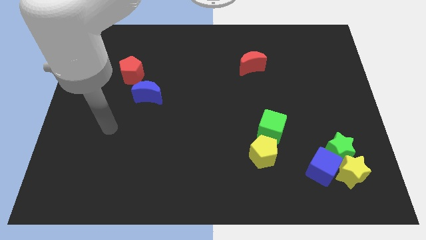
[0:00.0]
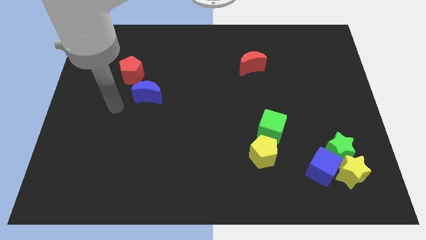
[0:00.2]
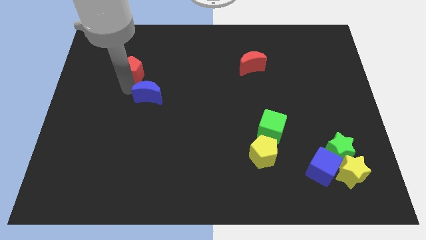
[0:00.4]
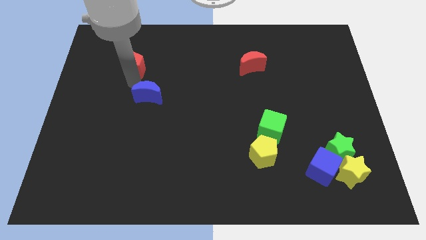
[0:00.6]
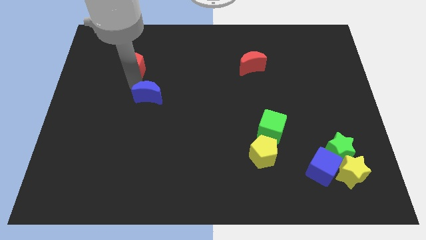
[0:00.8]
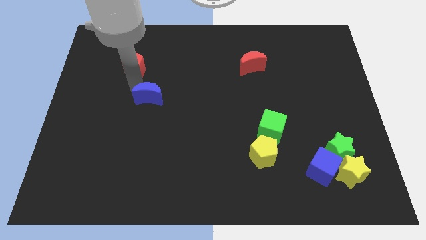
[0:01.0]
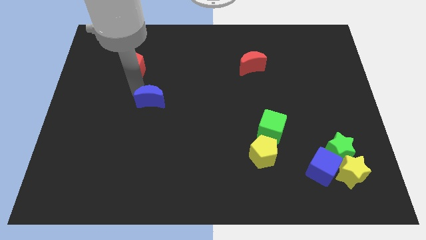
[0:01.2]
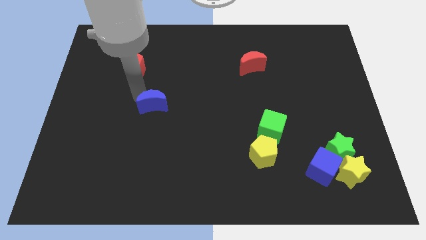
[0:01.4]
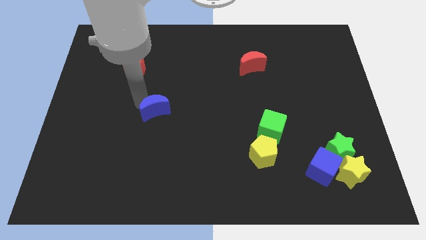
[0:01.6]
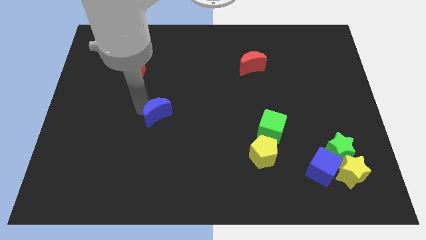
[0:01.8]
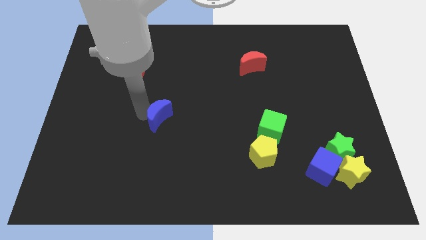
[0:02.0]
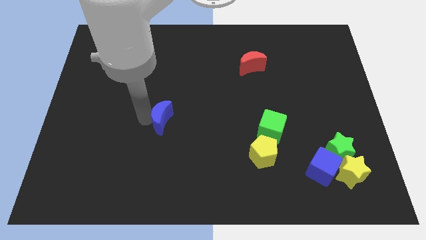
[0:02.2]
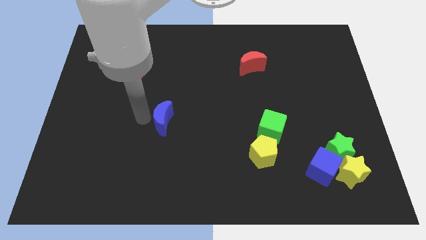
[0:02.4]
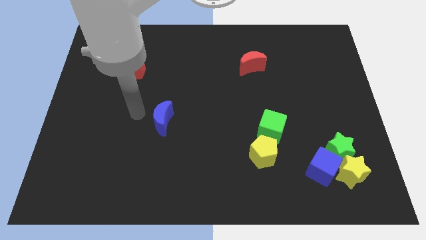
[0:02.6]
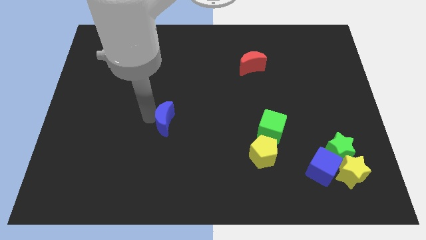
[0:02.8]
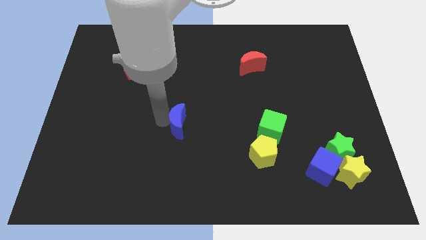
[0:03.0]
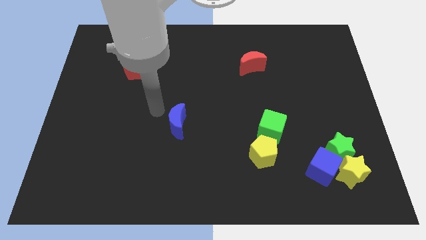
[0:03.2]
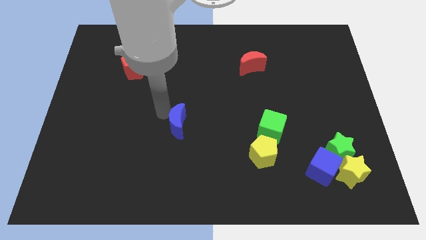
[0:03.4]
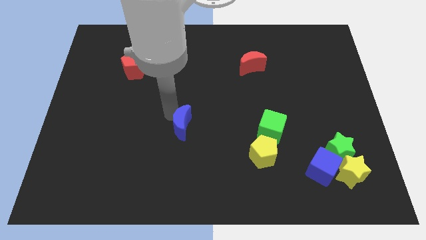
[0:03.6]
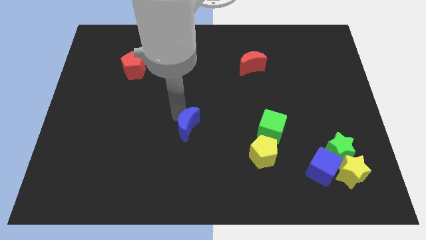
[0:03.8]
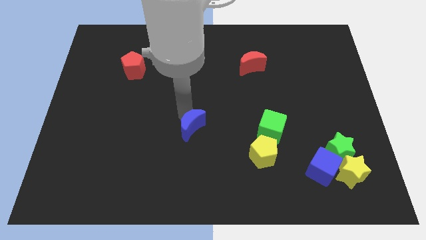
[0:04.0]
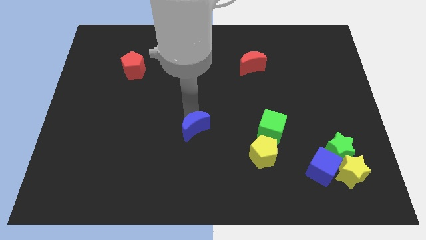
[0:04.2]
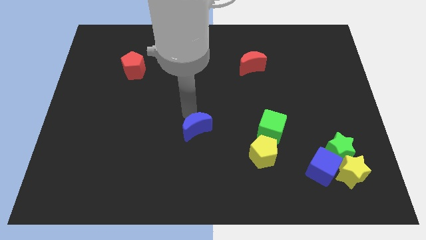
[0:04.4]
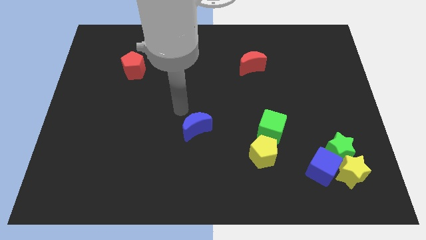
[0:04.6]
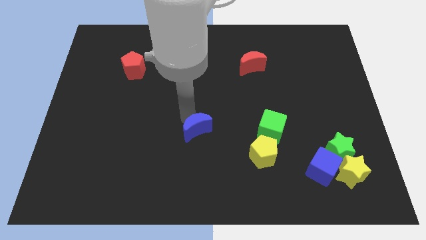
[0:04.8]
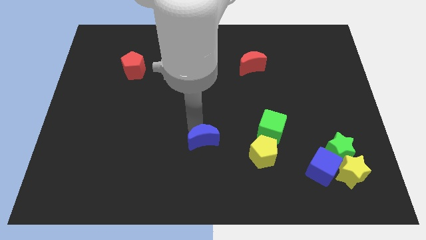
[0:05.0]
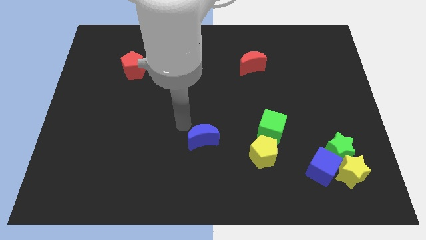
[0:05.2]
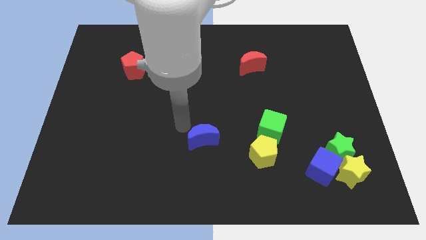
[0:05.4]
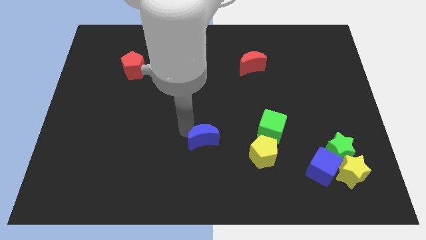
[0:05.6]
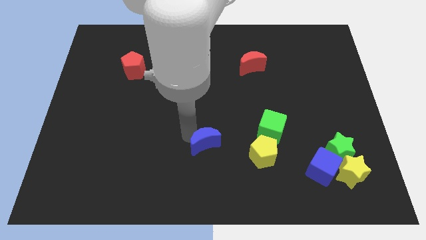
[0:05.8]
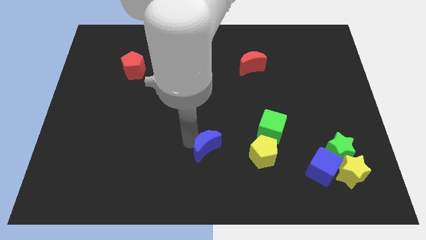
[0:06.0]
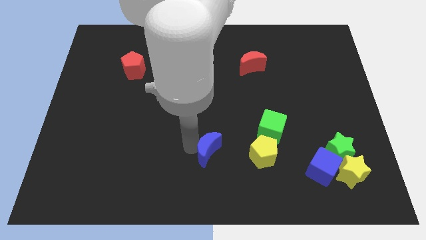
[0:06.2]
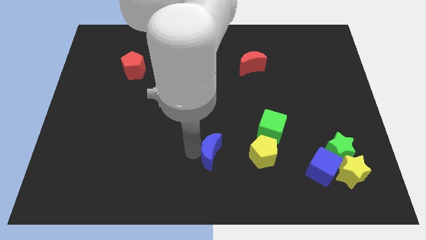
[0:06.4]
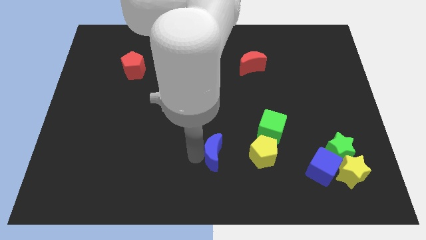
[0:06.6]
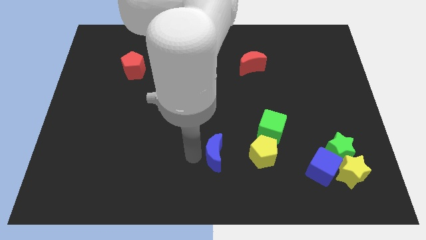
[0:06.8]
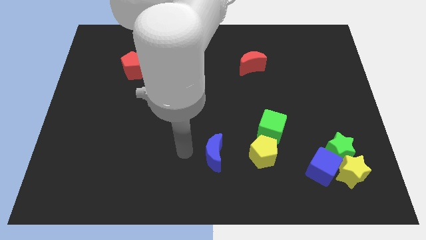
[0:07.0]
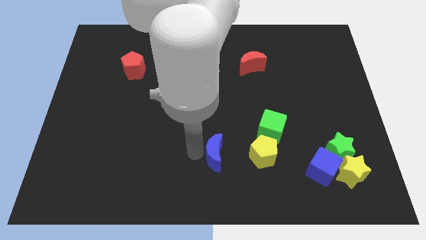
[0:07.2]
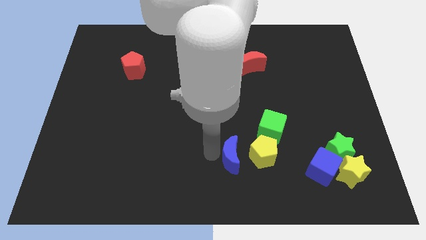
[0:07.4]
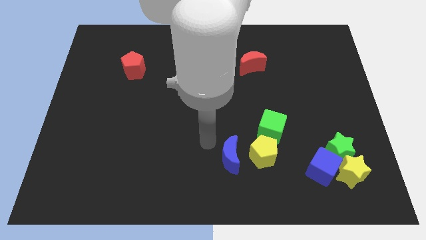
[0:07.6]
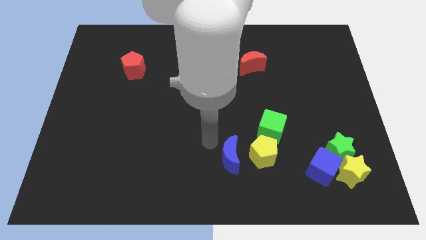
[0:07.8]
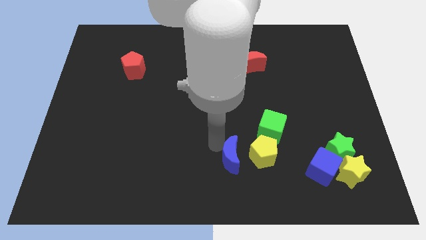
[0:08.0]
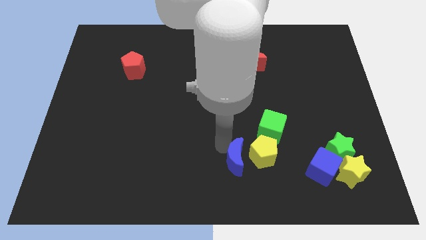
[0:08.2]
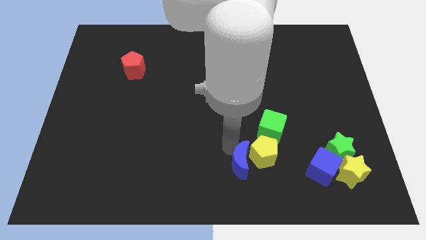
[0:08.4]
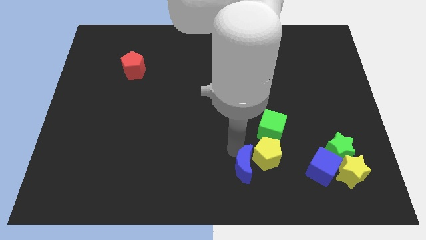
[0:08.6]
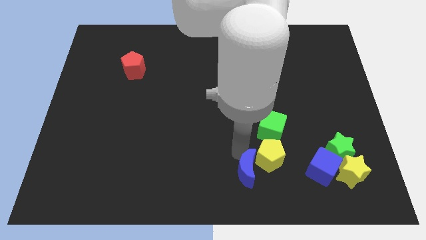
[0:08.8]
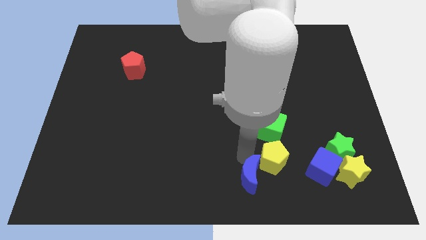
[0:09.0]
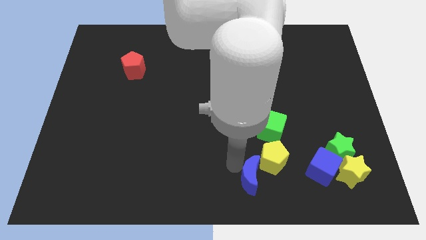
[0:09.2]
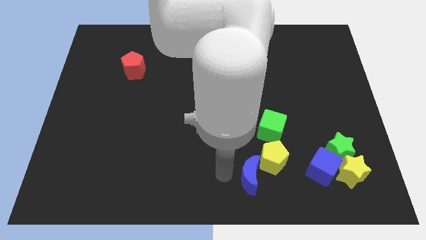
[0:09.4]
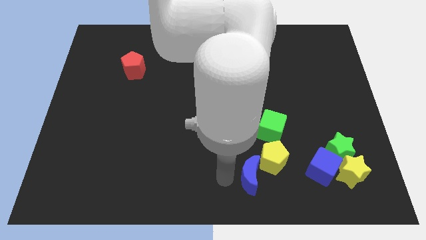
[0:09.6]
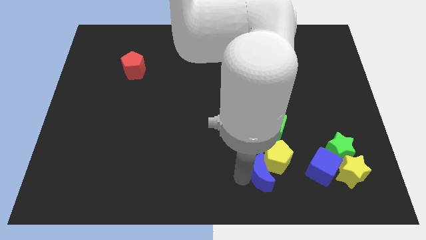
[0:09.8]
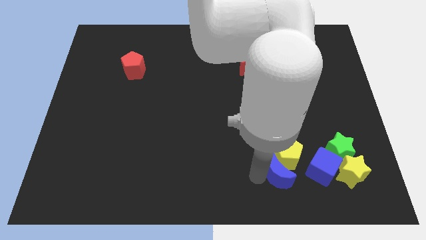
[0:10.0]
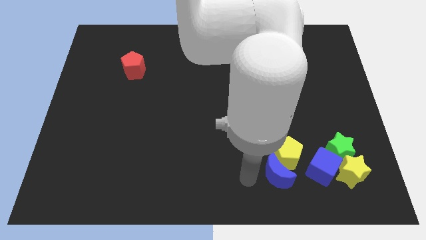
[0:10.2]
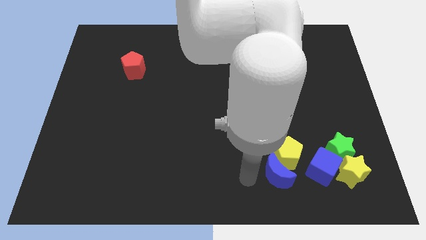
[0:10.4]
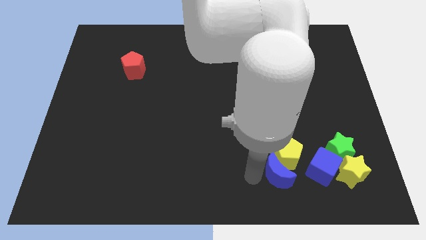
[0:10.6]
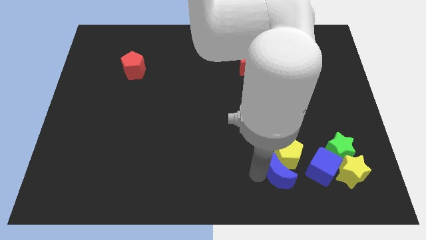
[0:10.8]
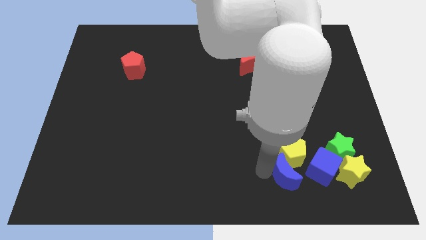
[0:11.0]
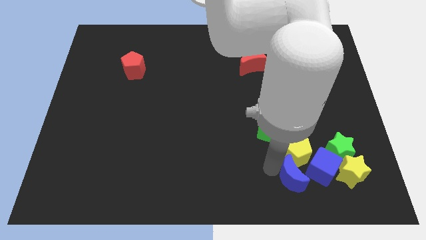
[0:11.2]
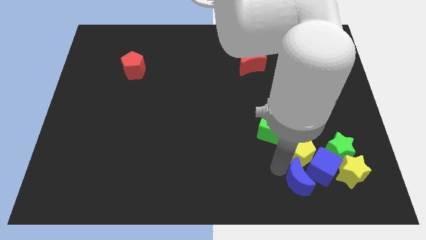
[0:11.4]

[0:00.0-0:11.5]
move the blue moon to the blue cube

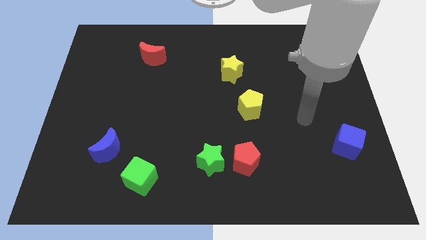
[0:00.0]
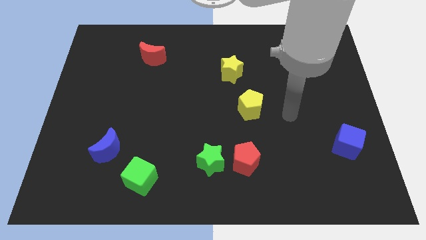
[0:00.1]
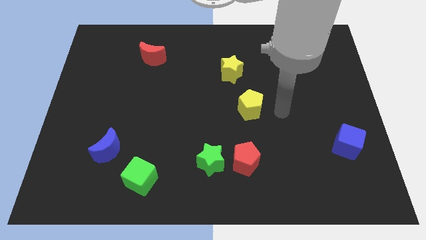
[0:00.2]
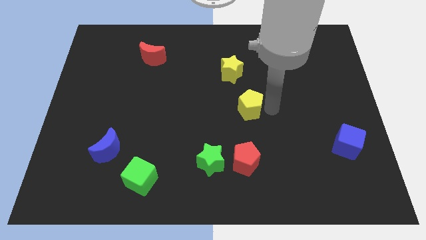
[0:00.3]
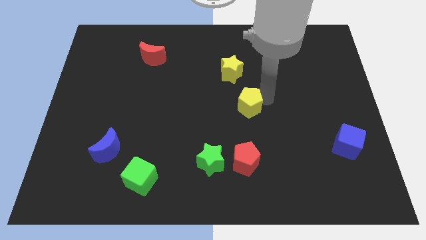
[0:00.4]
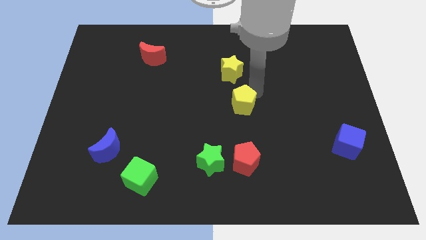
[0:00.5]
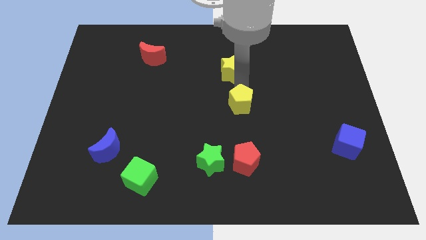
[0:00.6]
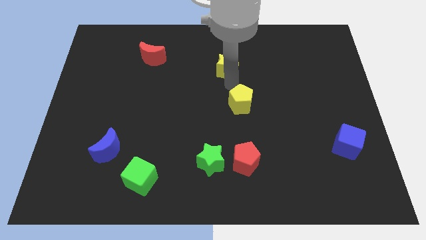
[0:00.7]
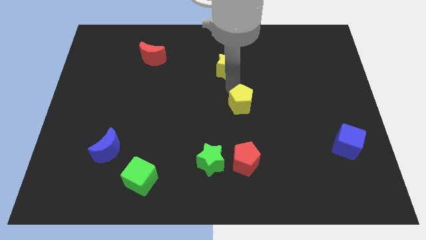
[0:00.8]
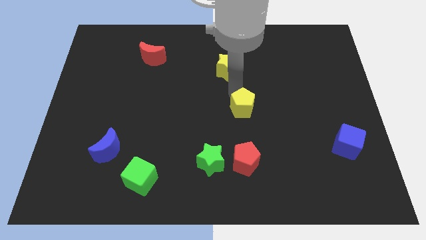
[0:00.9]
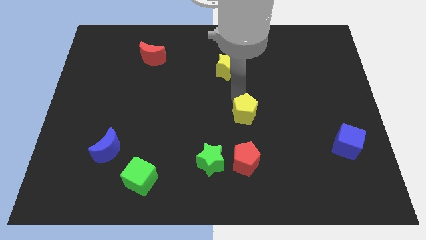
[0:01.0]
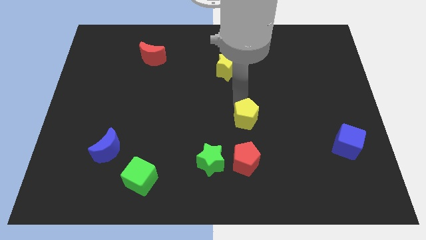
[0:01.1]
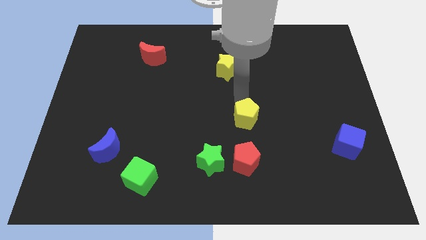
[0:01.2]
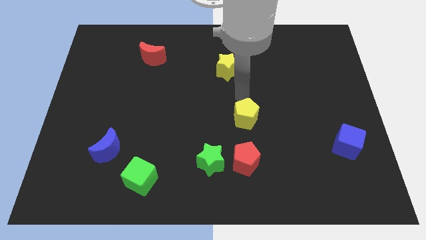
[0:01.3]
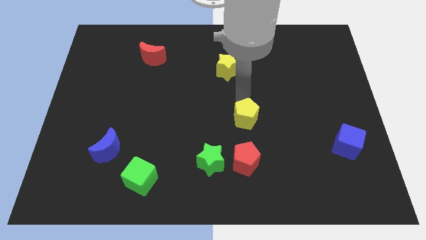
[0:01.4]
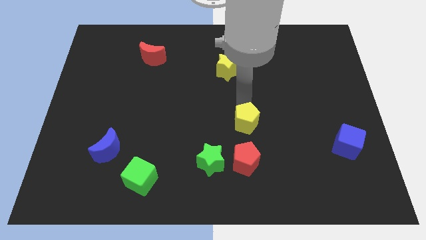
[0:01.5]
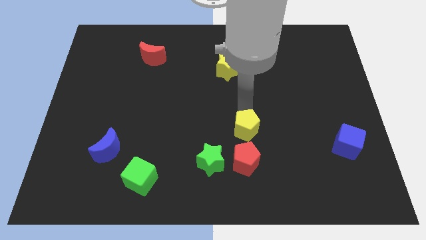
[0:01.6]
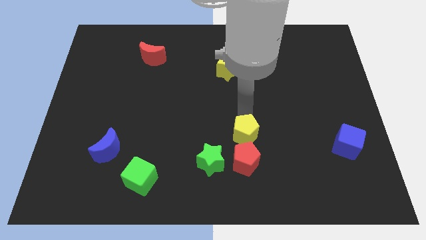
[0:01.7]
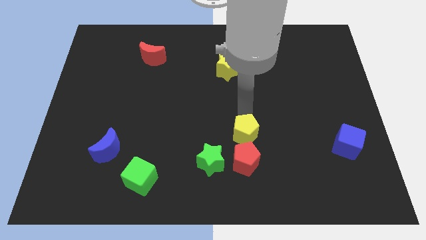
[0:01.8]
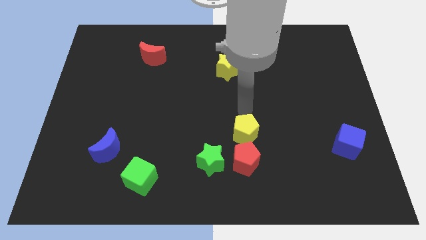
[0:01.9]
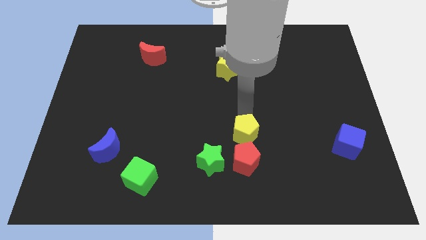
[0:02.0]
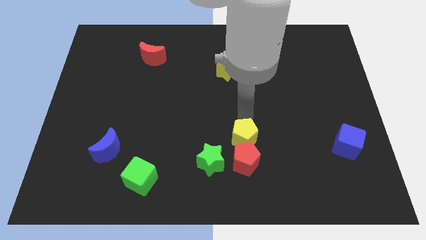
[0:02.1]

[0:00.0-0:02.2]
move the yellow pentagon to the red pentagon
